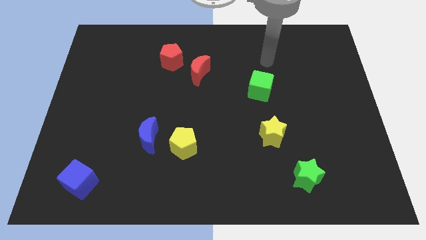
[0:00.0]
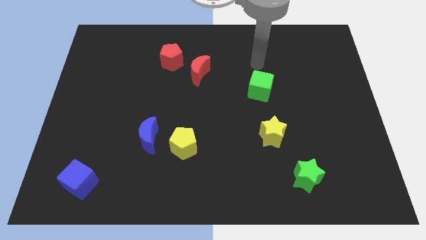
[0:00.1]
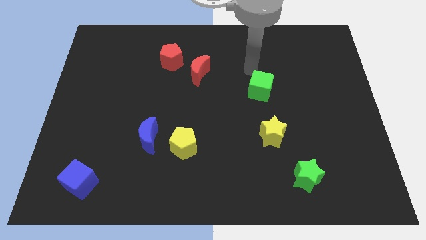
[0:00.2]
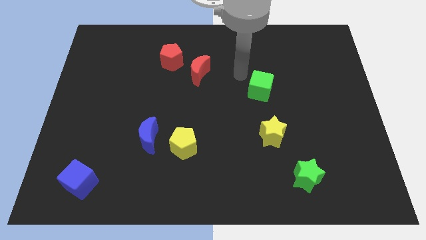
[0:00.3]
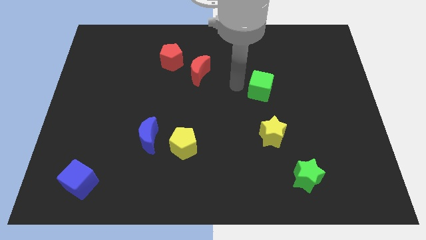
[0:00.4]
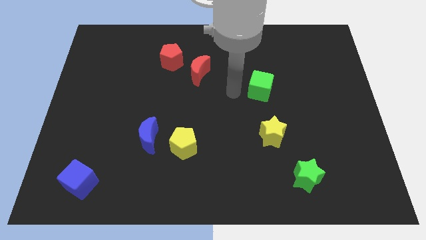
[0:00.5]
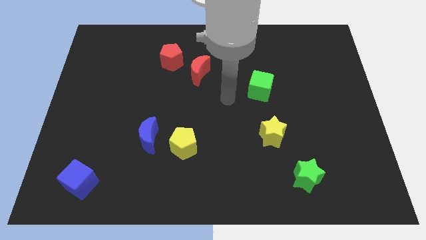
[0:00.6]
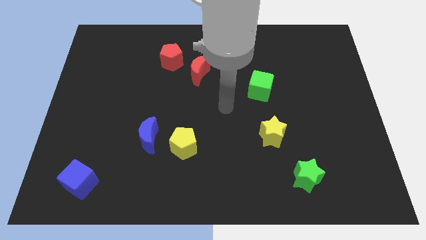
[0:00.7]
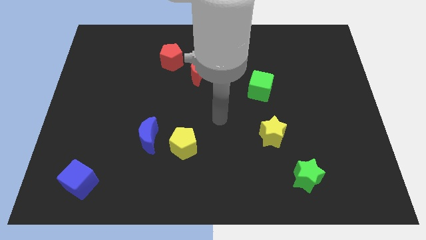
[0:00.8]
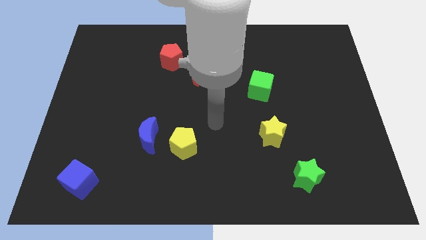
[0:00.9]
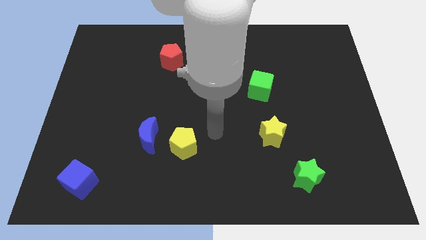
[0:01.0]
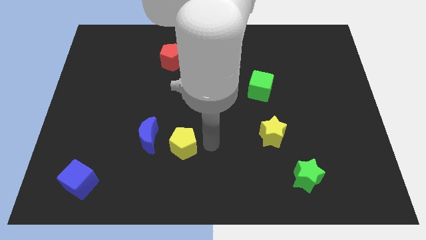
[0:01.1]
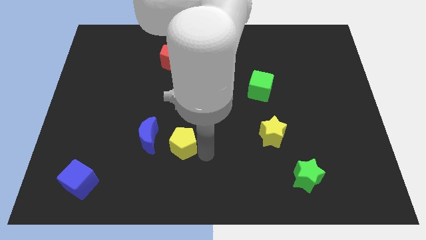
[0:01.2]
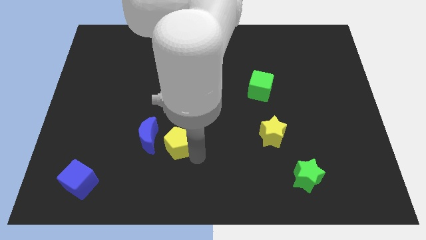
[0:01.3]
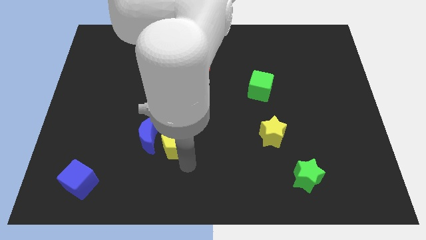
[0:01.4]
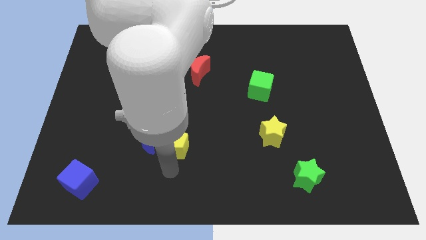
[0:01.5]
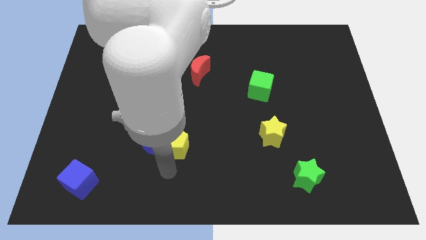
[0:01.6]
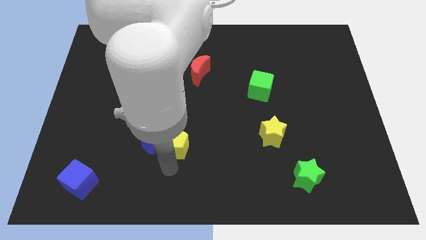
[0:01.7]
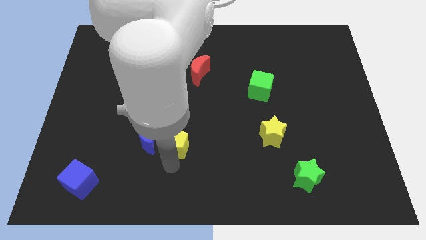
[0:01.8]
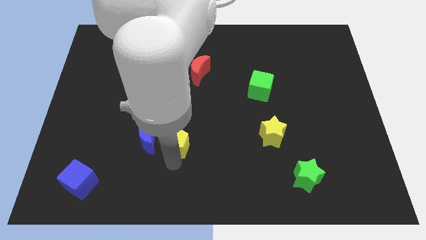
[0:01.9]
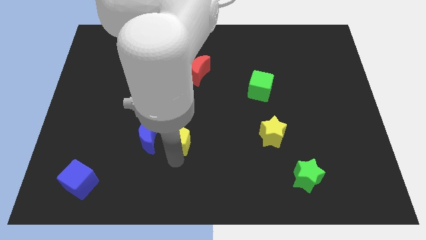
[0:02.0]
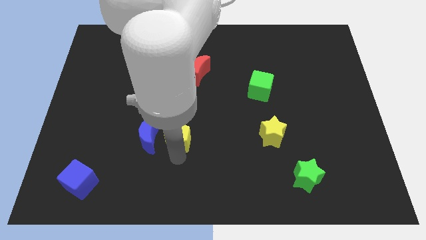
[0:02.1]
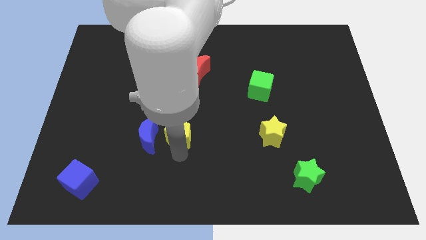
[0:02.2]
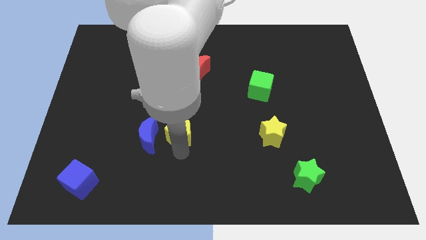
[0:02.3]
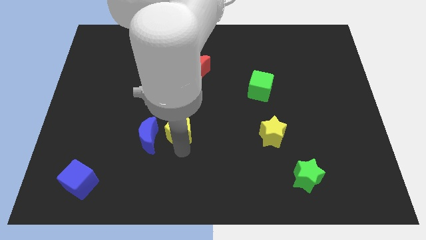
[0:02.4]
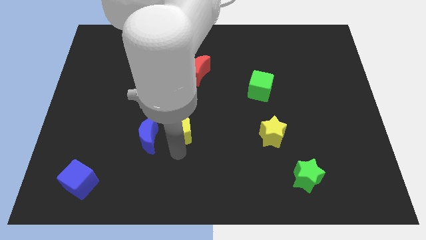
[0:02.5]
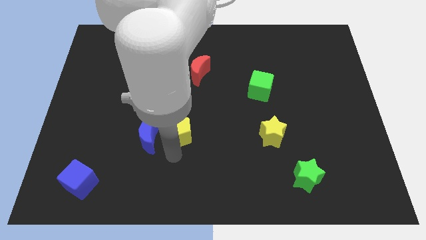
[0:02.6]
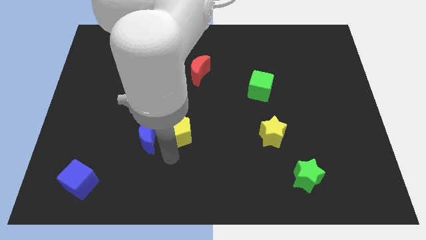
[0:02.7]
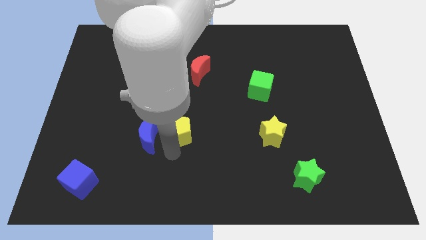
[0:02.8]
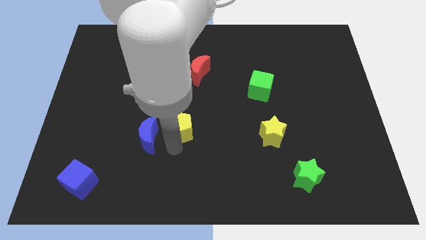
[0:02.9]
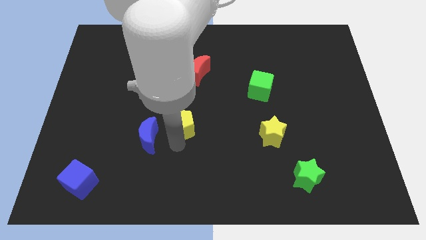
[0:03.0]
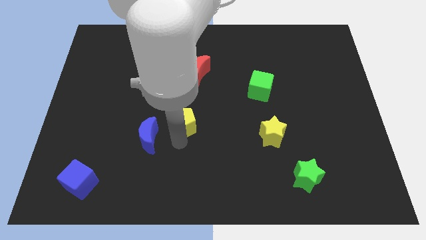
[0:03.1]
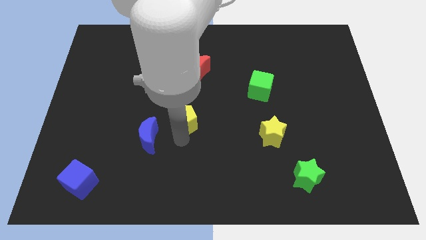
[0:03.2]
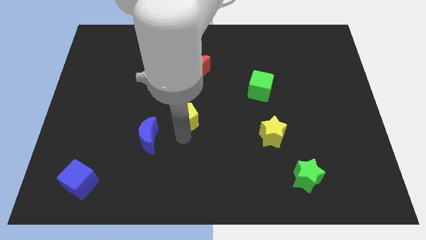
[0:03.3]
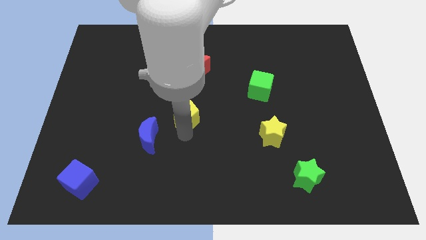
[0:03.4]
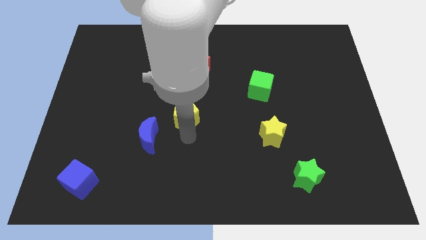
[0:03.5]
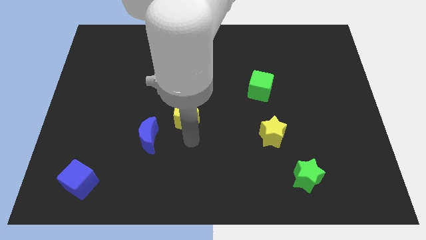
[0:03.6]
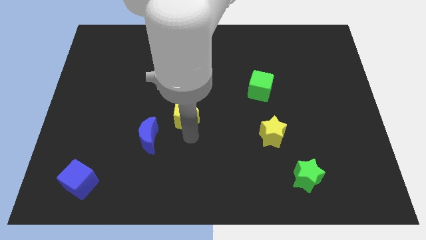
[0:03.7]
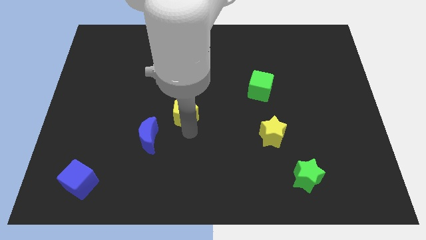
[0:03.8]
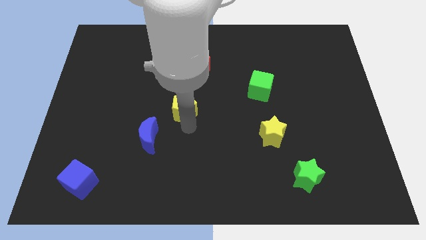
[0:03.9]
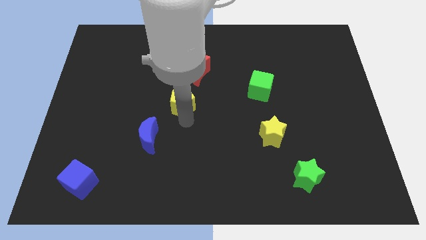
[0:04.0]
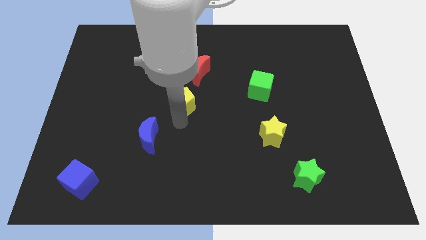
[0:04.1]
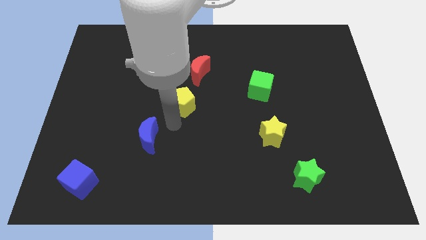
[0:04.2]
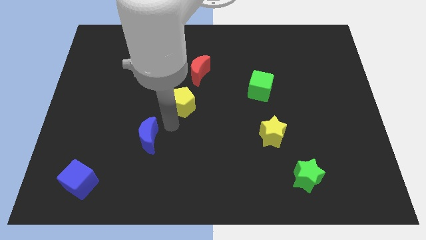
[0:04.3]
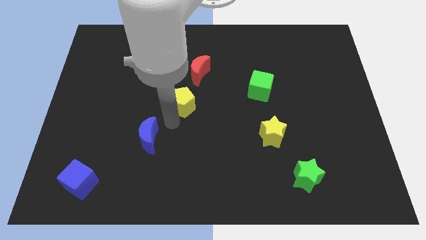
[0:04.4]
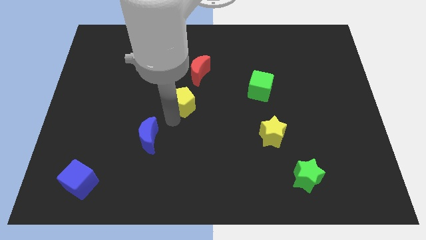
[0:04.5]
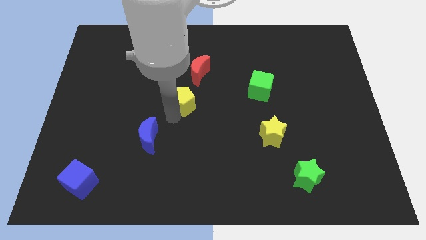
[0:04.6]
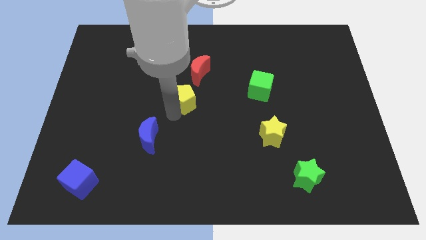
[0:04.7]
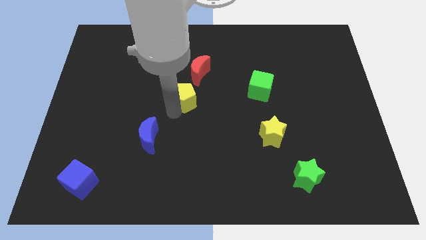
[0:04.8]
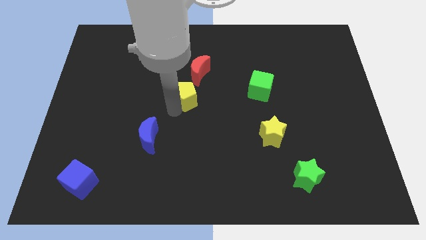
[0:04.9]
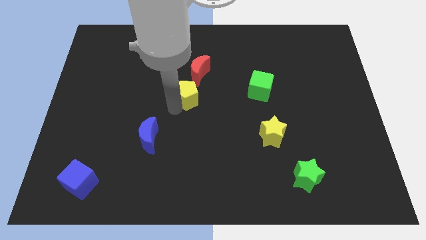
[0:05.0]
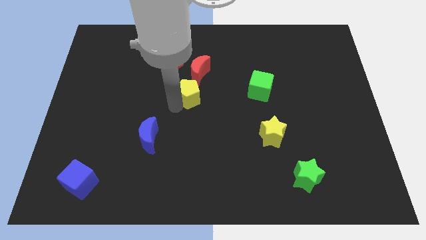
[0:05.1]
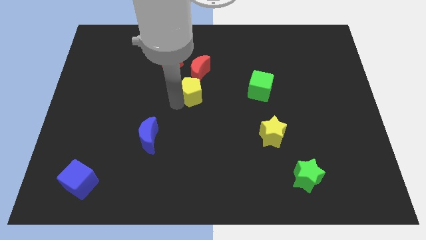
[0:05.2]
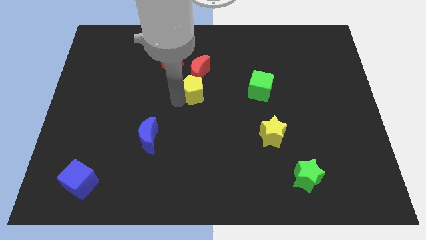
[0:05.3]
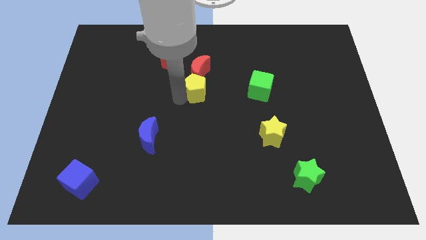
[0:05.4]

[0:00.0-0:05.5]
push the yellow pentagon towards the red moon

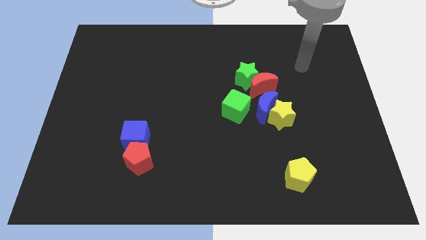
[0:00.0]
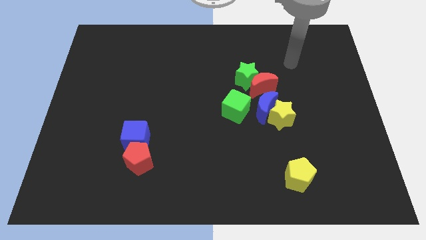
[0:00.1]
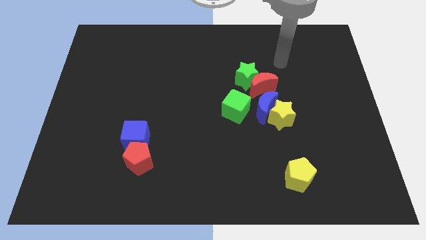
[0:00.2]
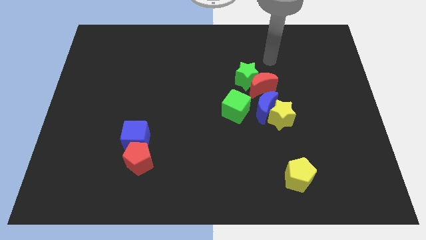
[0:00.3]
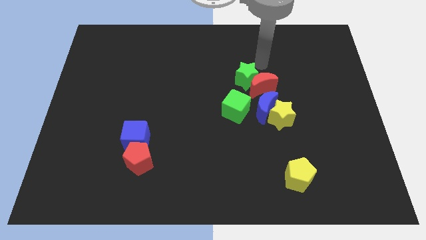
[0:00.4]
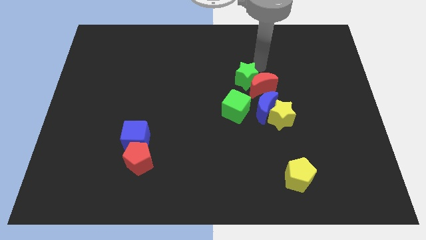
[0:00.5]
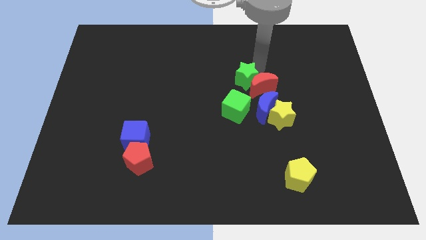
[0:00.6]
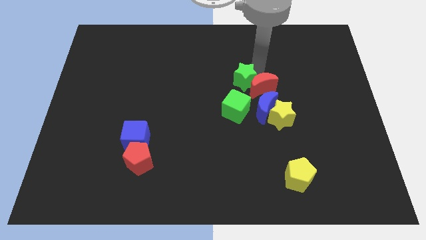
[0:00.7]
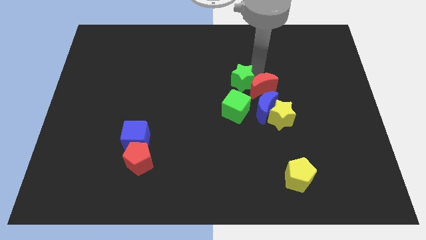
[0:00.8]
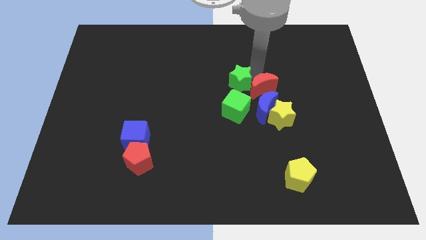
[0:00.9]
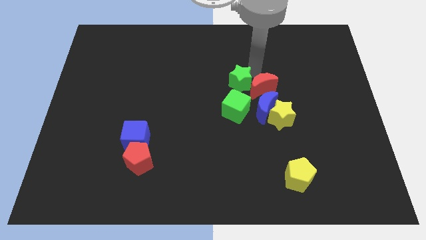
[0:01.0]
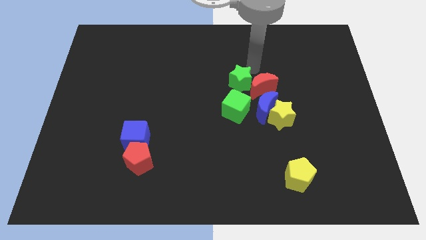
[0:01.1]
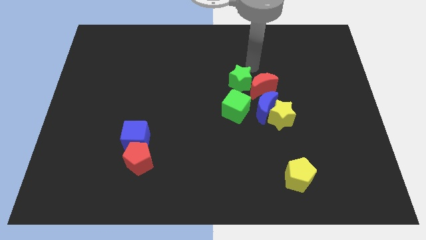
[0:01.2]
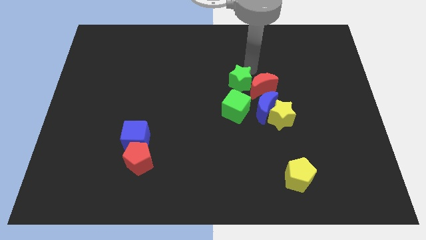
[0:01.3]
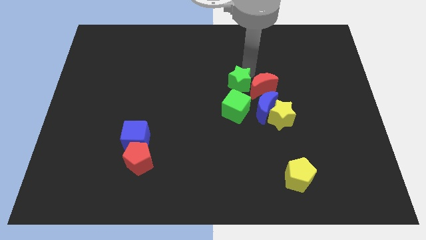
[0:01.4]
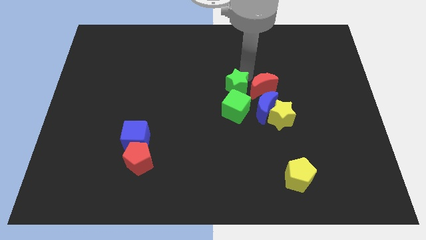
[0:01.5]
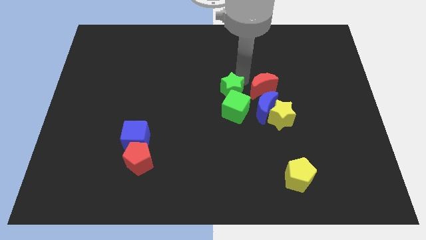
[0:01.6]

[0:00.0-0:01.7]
push the green star close to the green cube

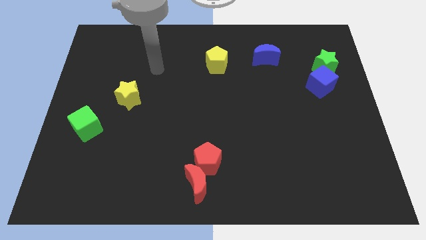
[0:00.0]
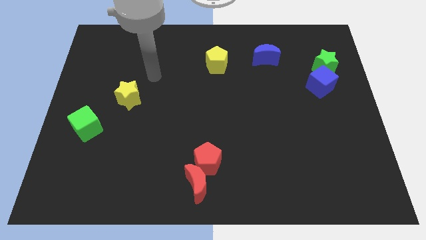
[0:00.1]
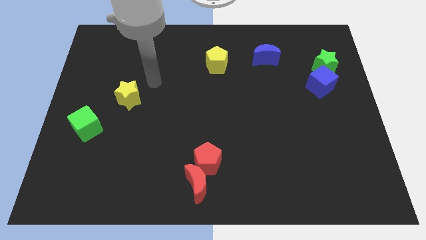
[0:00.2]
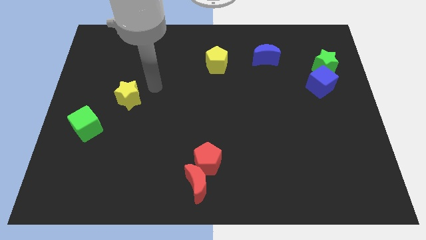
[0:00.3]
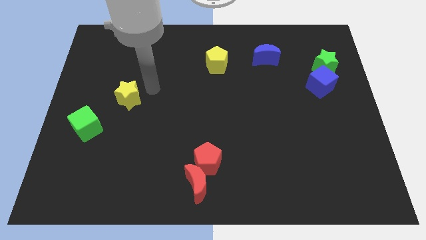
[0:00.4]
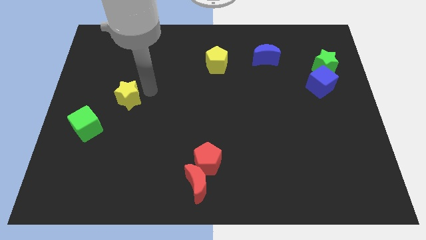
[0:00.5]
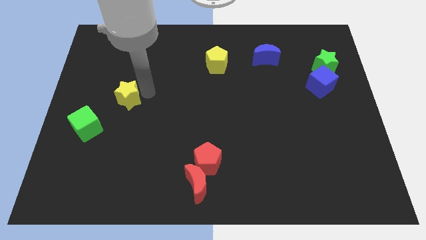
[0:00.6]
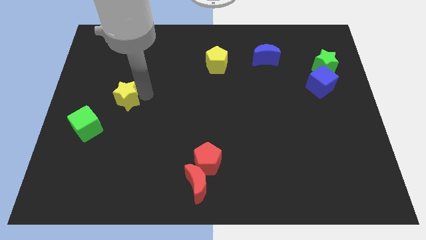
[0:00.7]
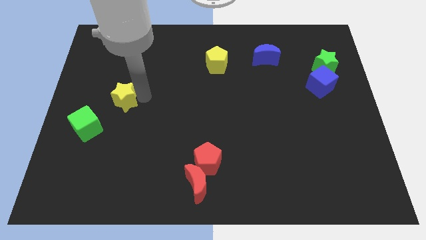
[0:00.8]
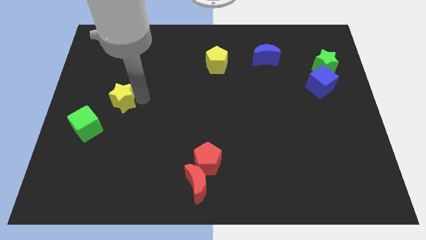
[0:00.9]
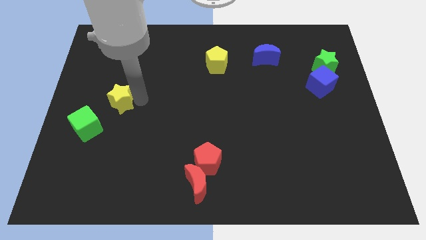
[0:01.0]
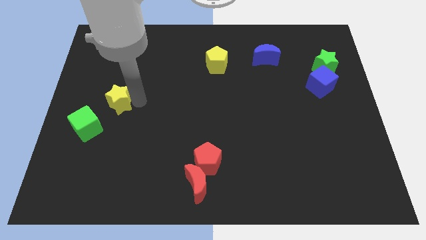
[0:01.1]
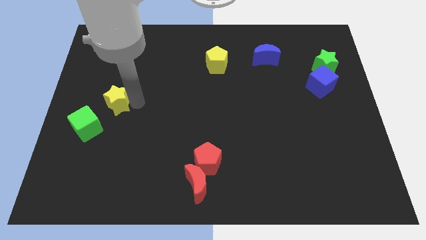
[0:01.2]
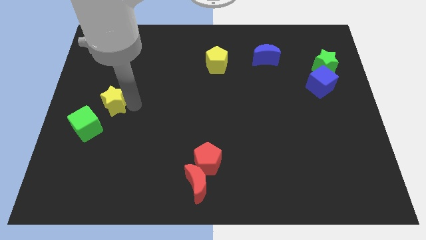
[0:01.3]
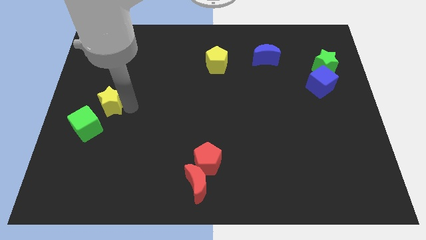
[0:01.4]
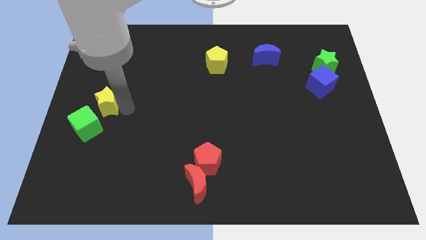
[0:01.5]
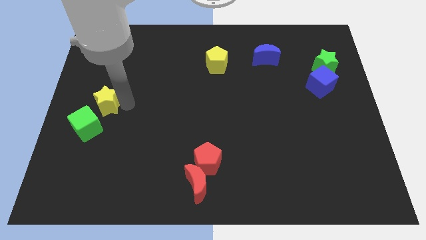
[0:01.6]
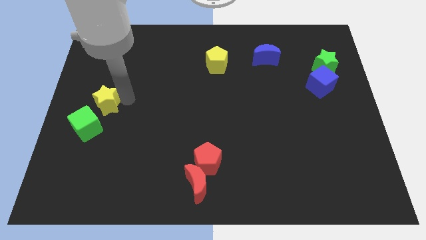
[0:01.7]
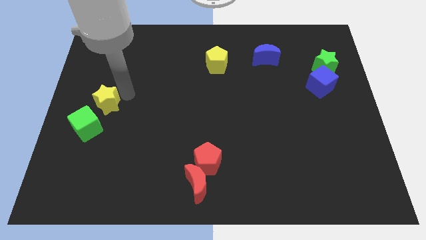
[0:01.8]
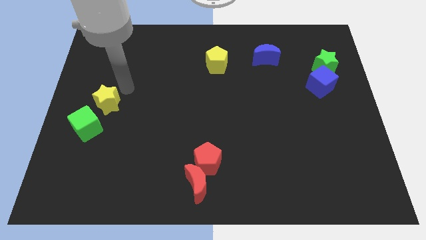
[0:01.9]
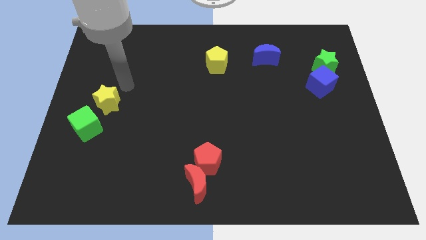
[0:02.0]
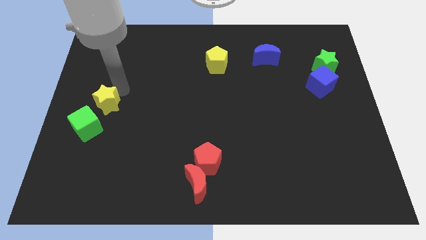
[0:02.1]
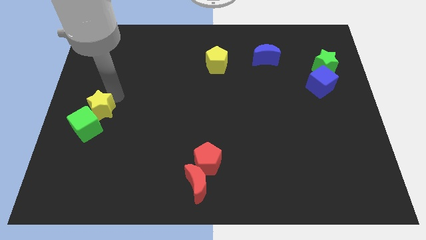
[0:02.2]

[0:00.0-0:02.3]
push the yellow star close to the green cube
